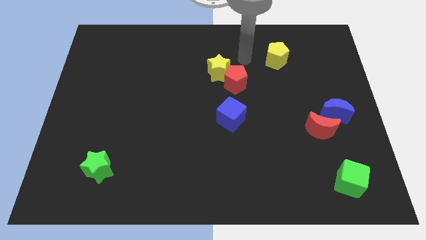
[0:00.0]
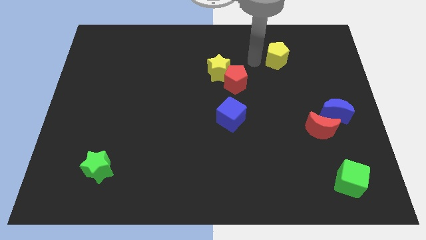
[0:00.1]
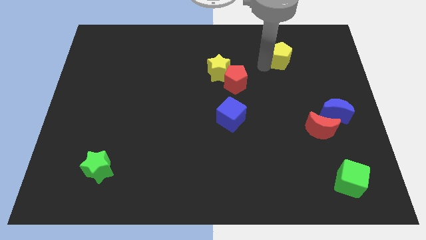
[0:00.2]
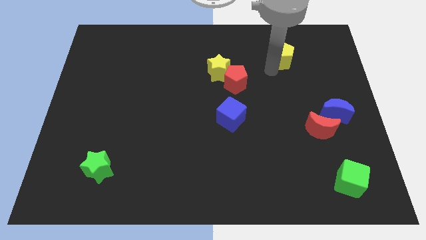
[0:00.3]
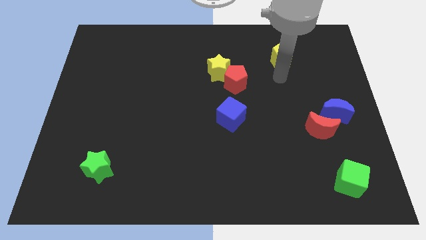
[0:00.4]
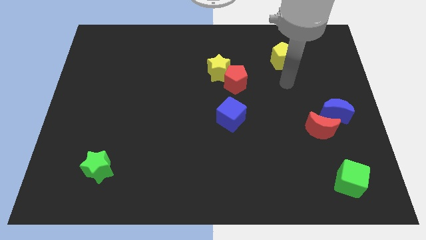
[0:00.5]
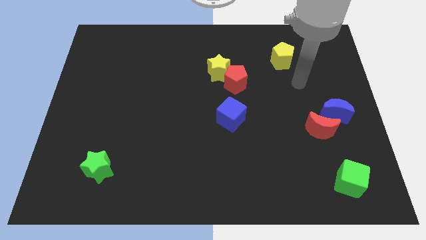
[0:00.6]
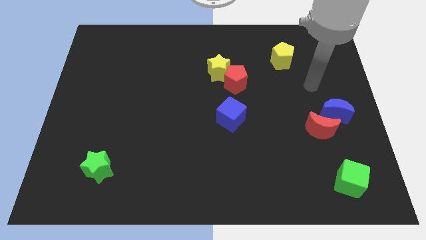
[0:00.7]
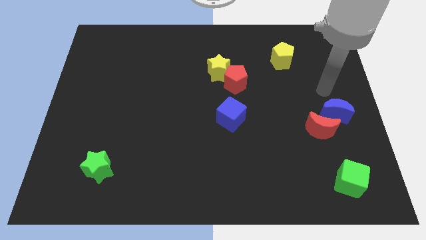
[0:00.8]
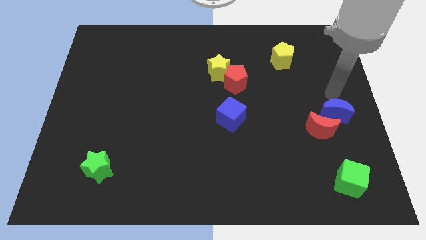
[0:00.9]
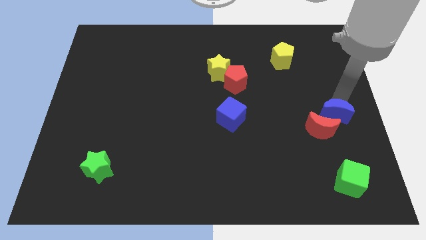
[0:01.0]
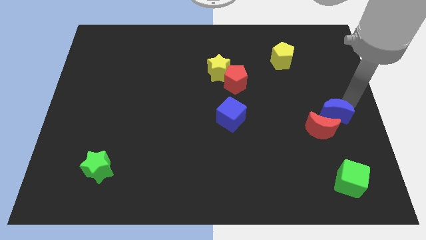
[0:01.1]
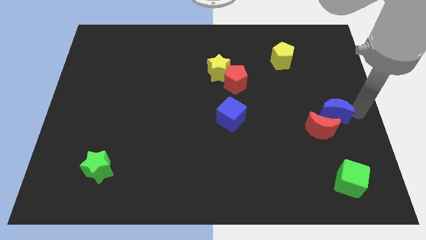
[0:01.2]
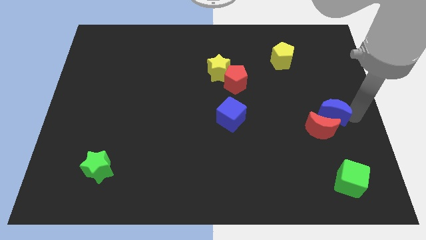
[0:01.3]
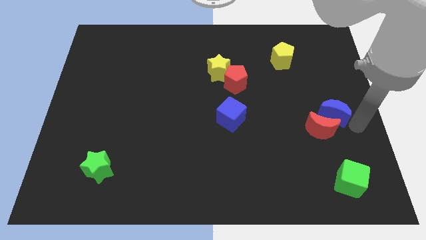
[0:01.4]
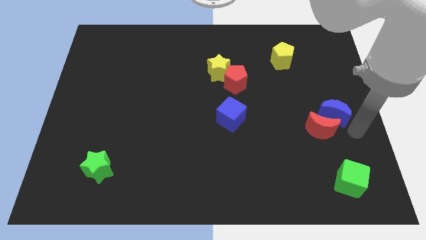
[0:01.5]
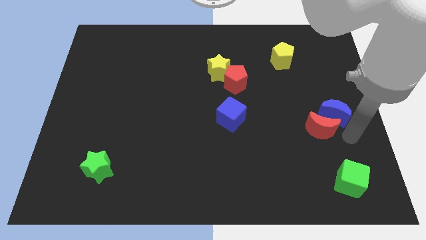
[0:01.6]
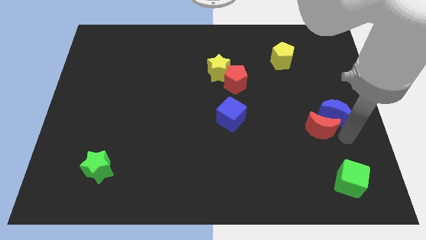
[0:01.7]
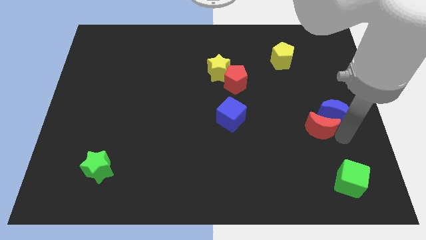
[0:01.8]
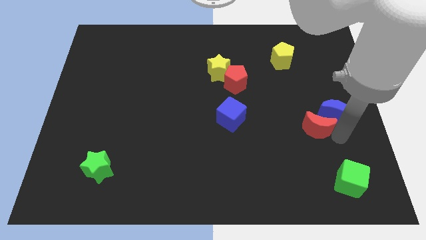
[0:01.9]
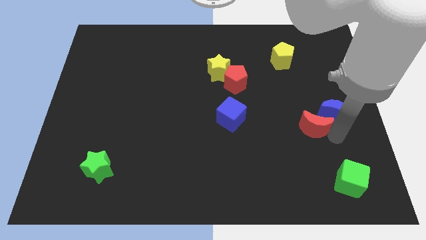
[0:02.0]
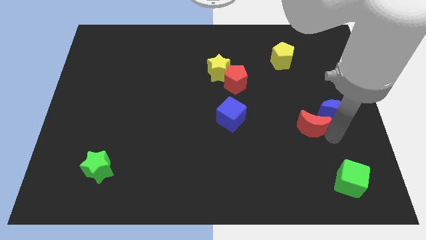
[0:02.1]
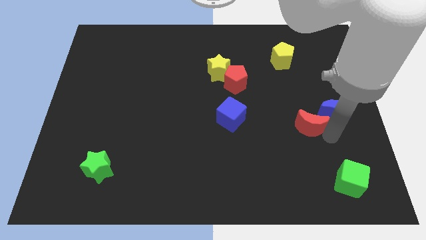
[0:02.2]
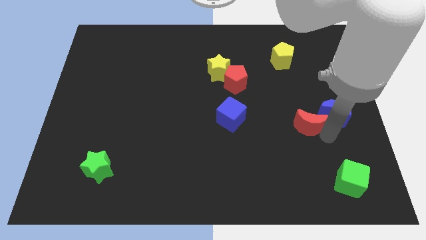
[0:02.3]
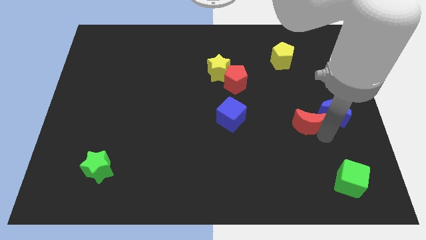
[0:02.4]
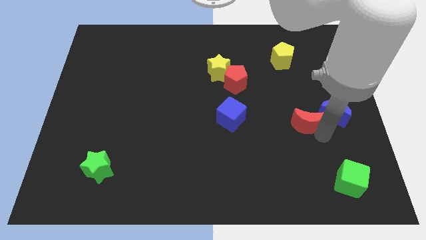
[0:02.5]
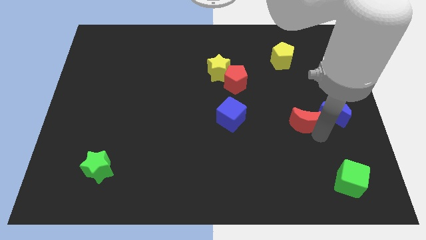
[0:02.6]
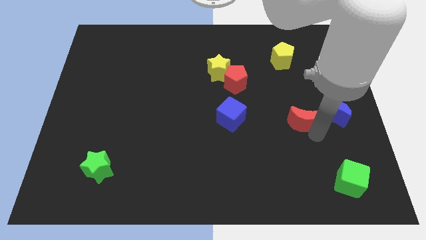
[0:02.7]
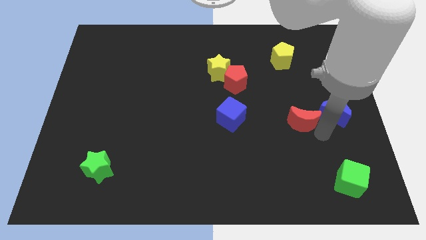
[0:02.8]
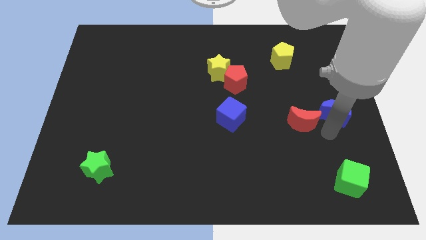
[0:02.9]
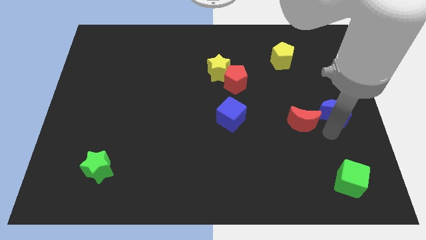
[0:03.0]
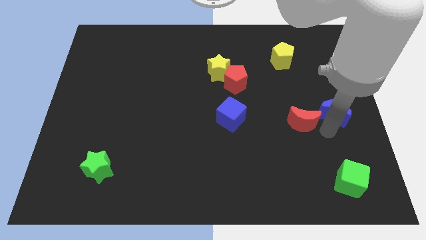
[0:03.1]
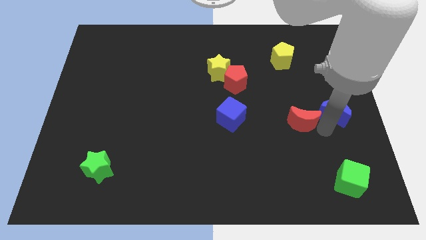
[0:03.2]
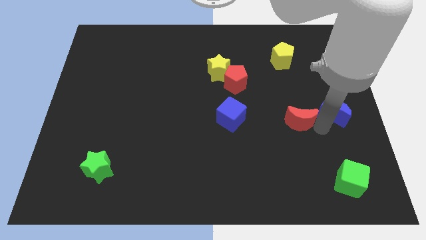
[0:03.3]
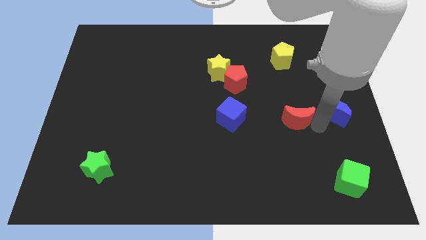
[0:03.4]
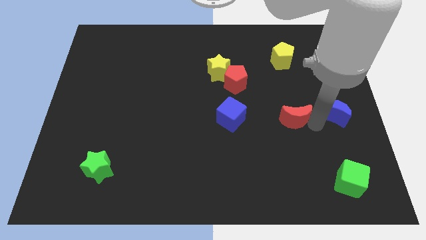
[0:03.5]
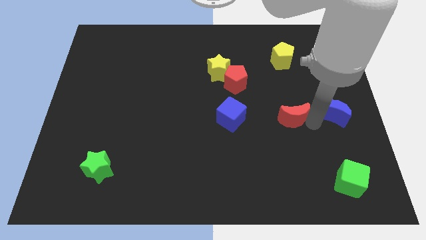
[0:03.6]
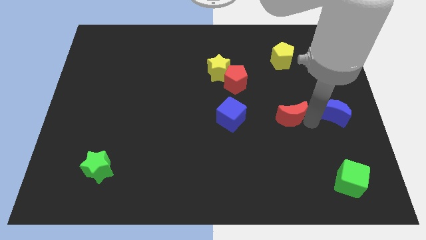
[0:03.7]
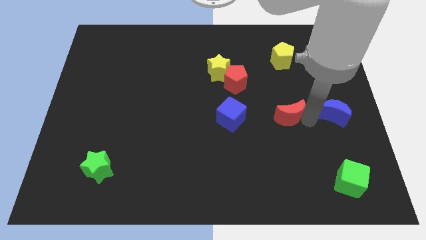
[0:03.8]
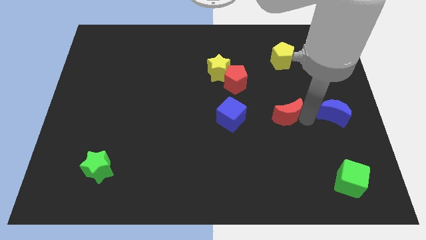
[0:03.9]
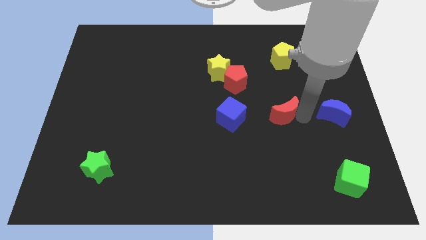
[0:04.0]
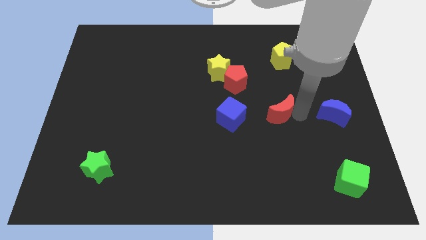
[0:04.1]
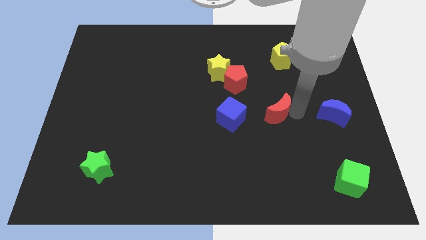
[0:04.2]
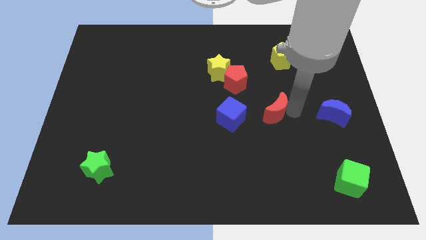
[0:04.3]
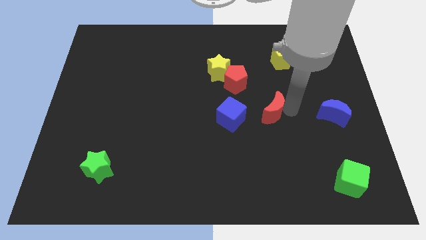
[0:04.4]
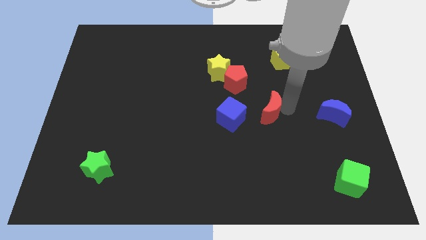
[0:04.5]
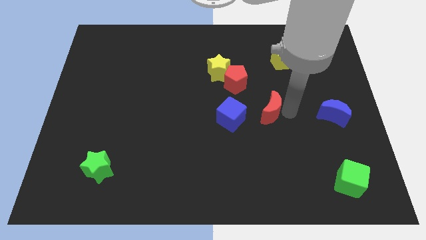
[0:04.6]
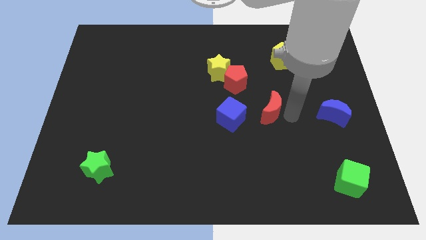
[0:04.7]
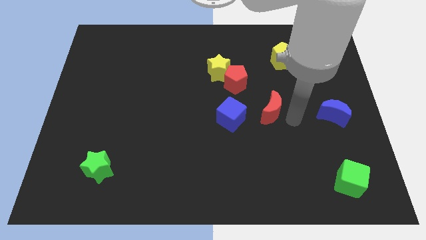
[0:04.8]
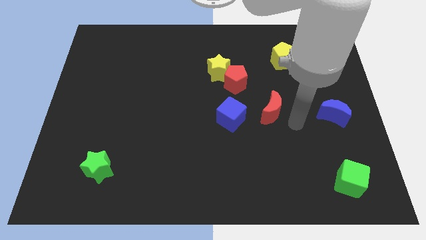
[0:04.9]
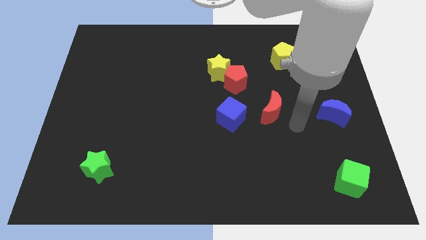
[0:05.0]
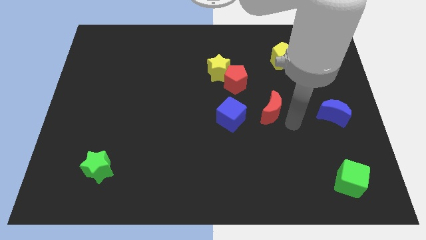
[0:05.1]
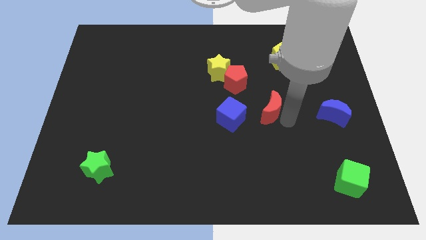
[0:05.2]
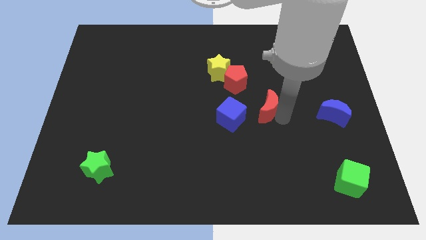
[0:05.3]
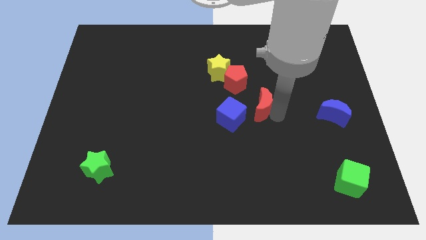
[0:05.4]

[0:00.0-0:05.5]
push the red moon to the middle

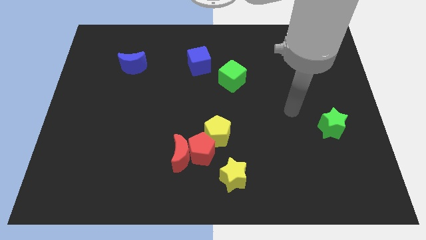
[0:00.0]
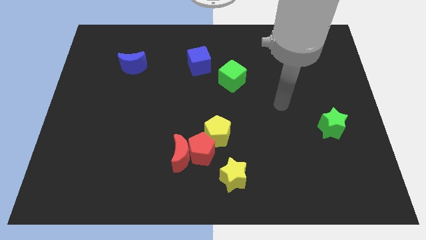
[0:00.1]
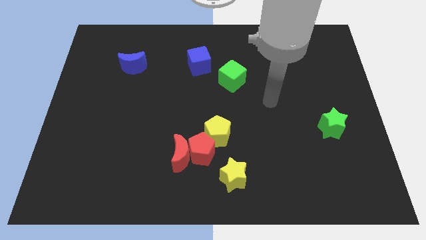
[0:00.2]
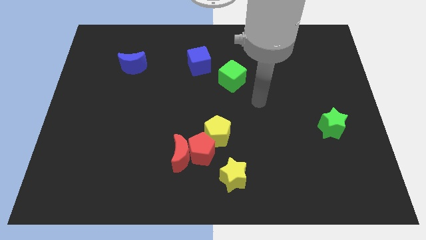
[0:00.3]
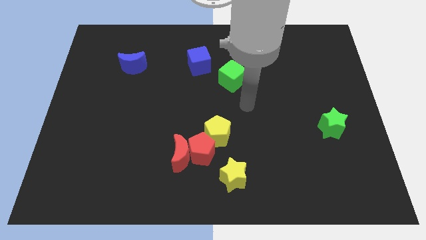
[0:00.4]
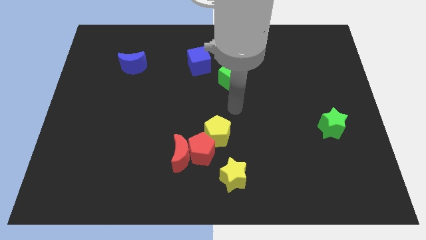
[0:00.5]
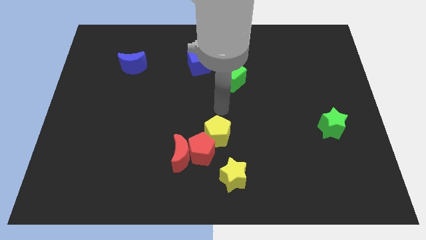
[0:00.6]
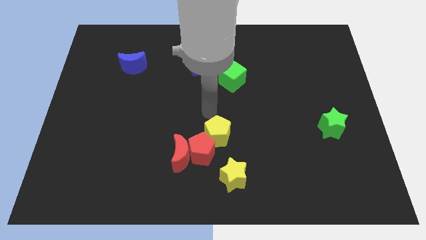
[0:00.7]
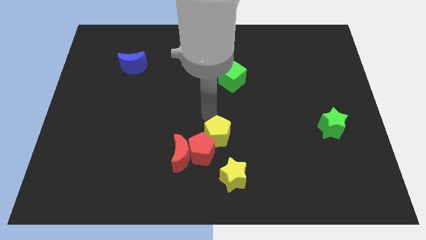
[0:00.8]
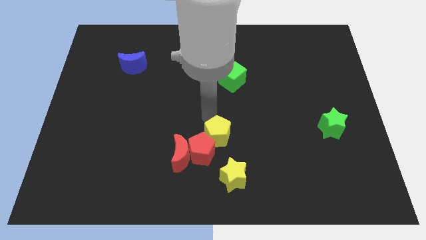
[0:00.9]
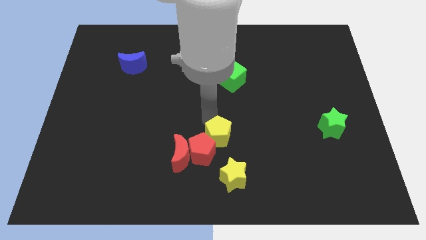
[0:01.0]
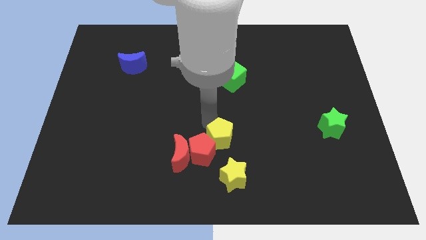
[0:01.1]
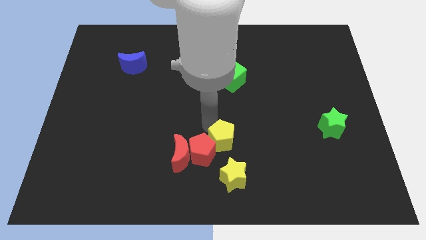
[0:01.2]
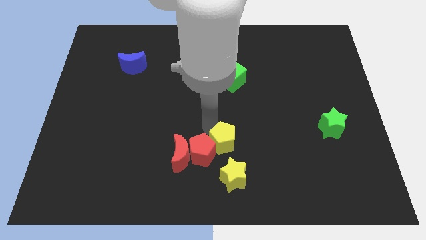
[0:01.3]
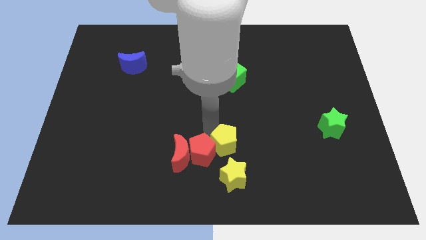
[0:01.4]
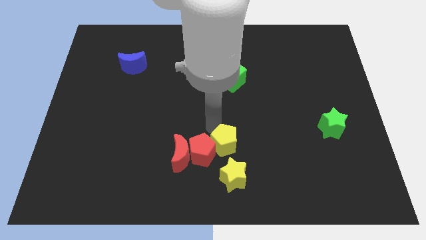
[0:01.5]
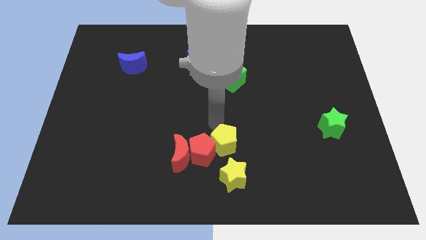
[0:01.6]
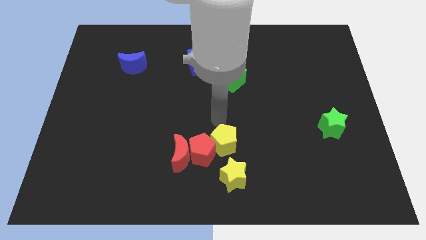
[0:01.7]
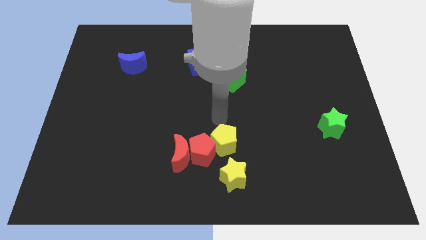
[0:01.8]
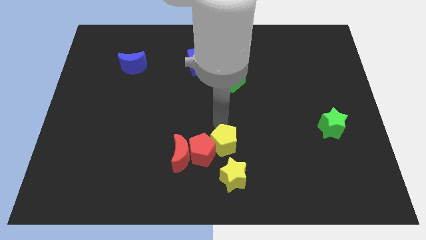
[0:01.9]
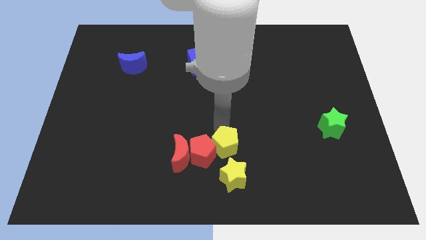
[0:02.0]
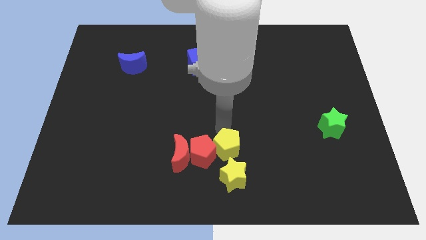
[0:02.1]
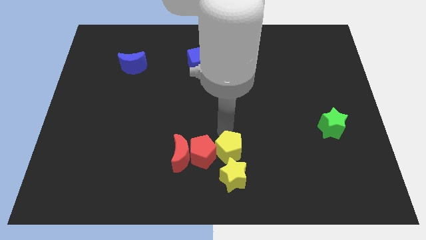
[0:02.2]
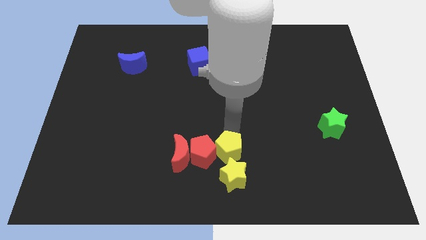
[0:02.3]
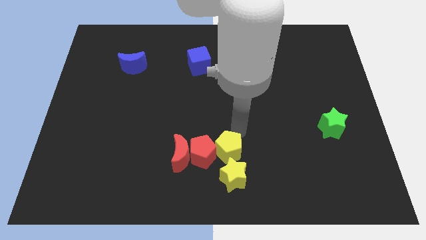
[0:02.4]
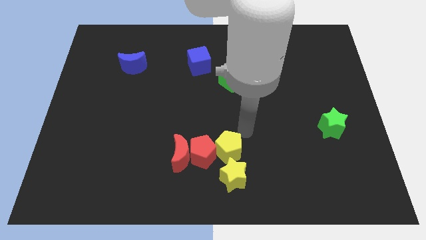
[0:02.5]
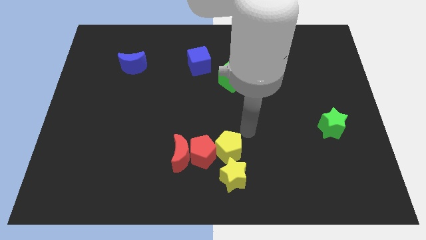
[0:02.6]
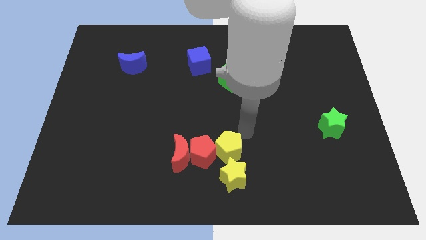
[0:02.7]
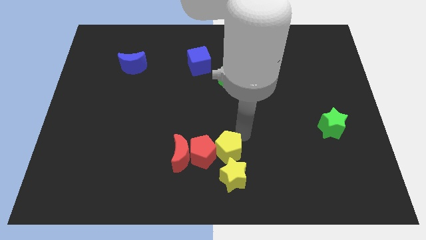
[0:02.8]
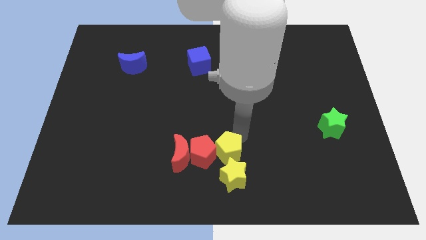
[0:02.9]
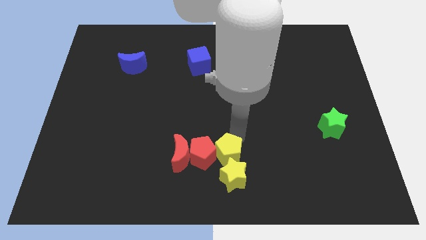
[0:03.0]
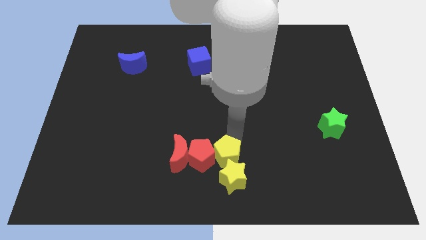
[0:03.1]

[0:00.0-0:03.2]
put the yellow pentagon to the bottom
